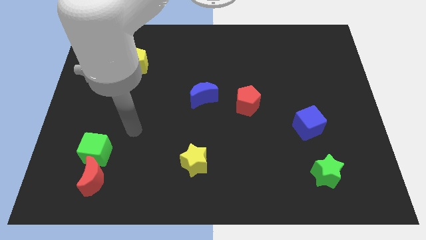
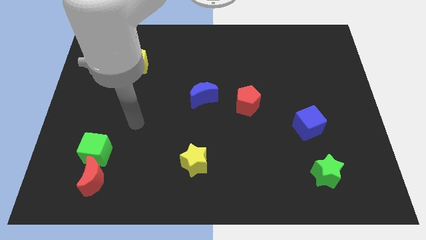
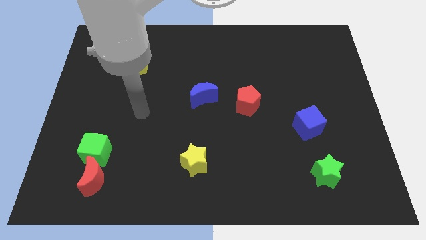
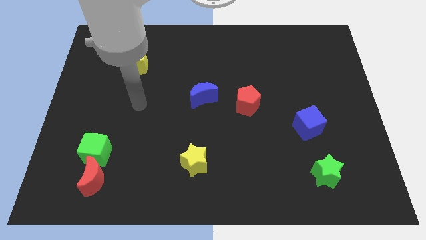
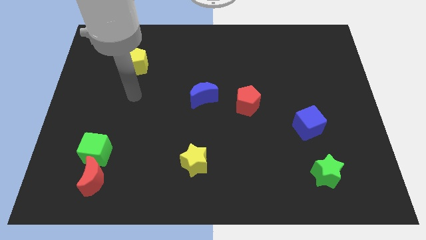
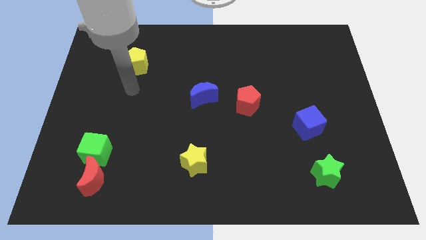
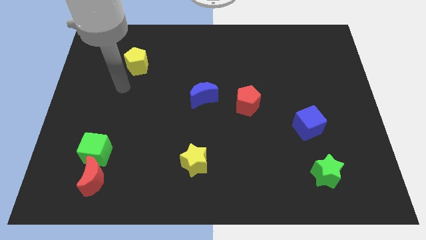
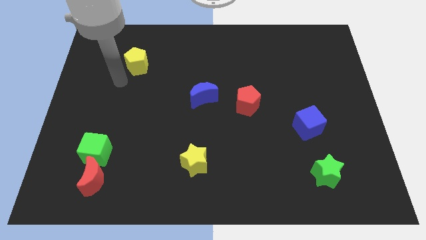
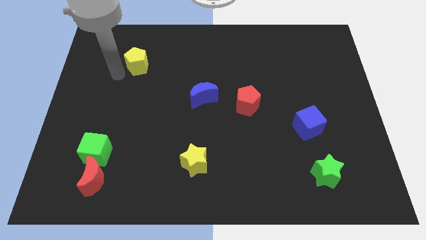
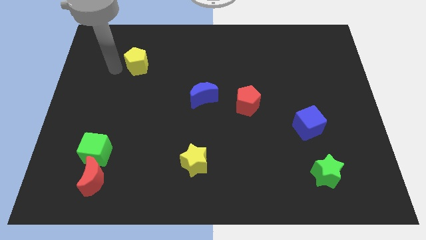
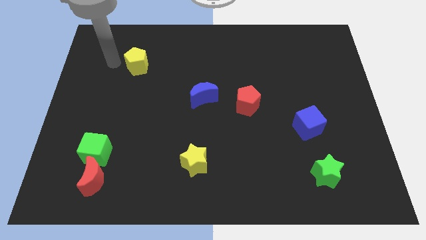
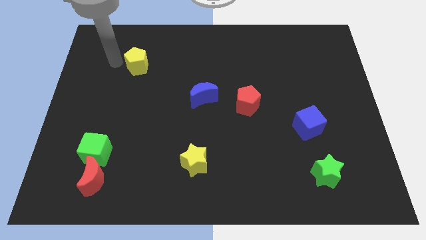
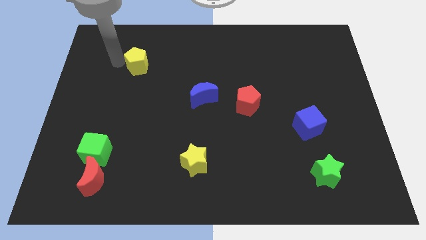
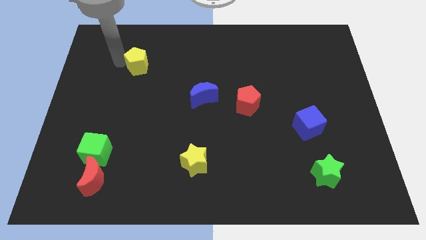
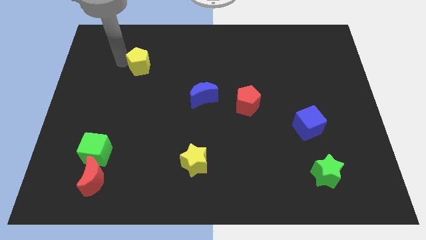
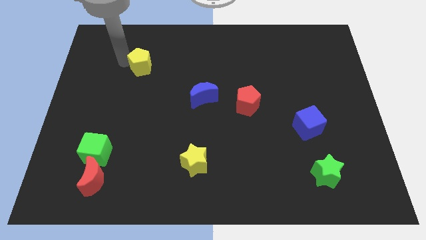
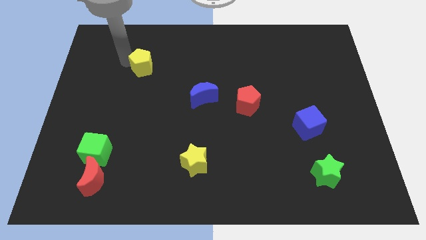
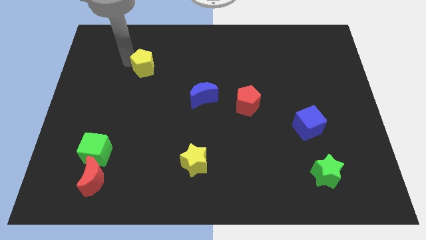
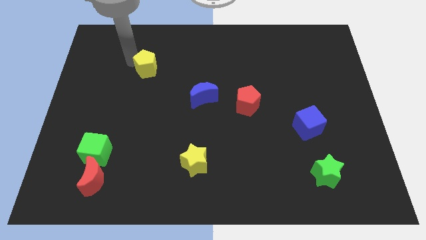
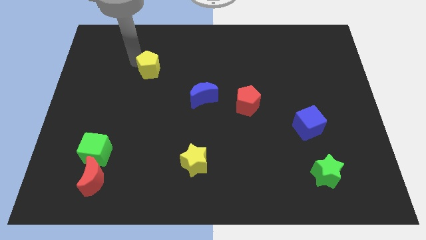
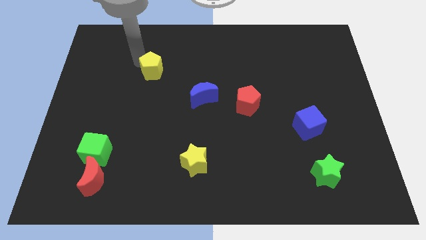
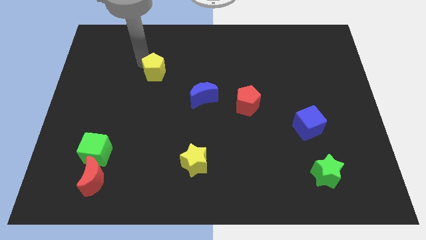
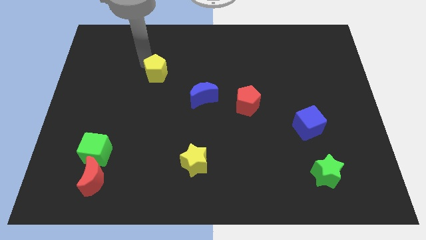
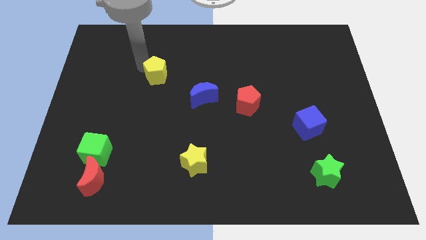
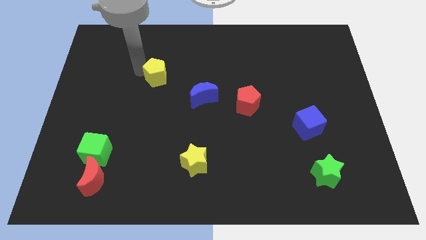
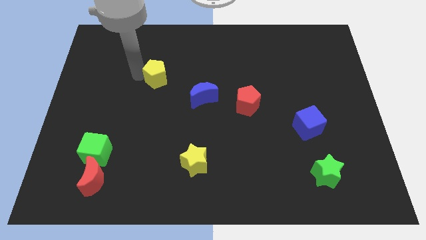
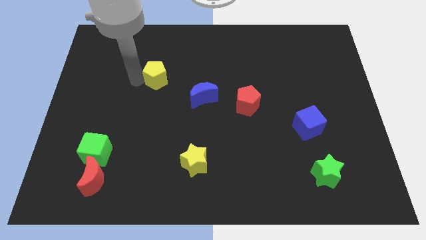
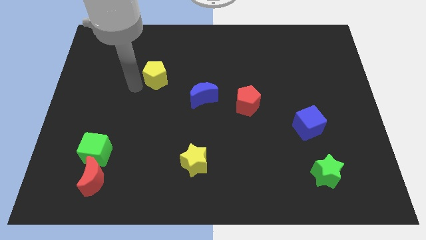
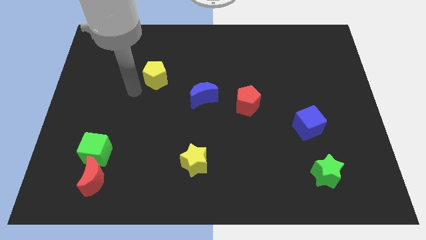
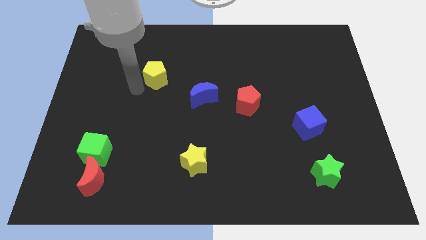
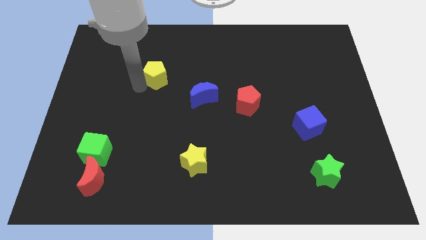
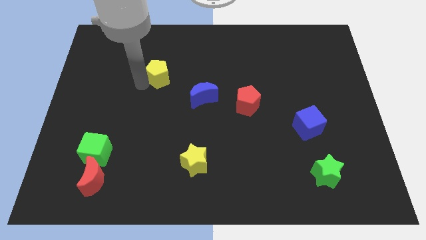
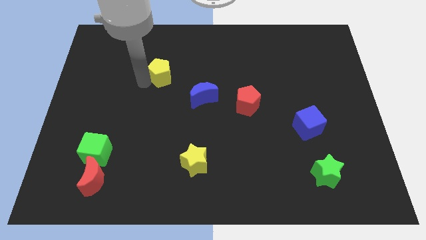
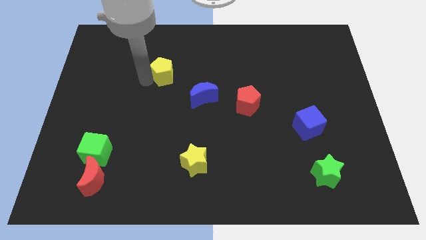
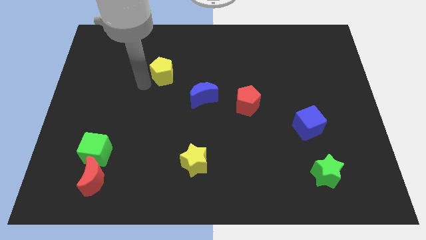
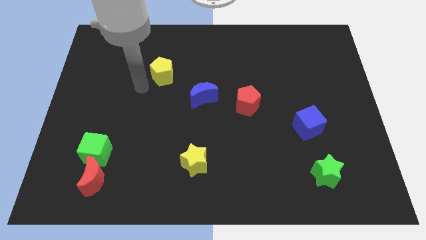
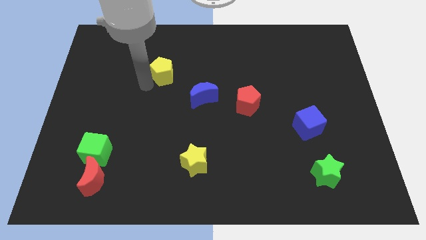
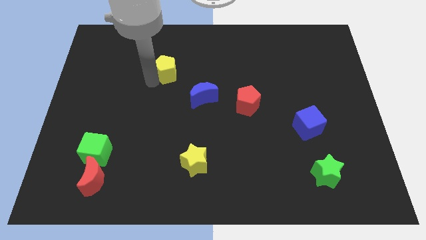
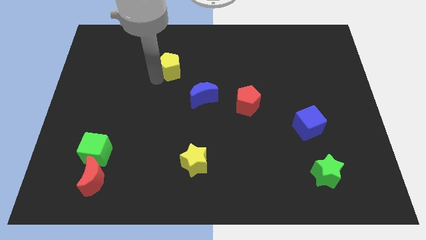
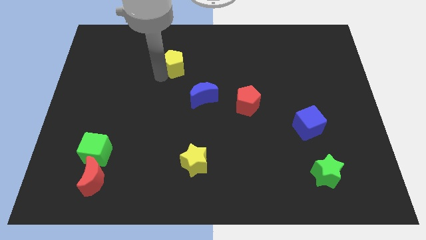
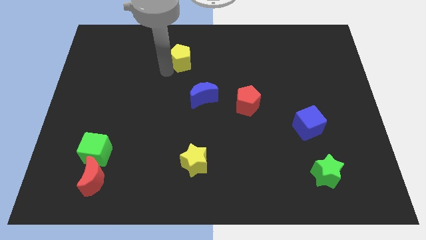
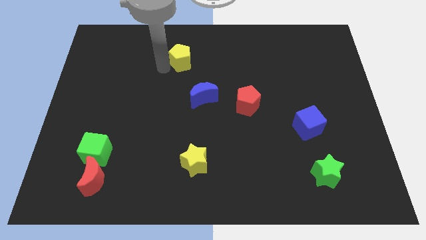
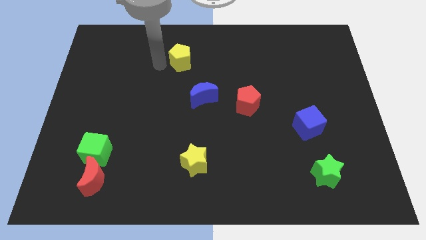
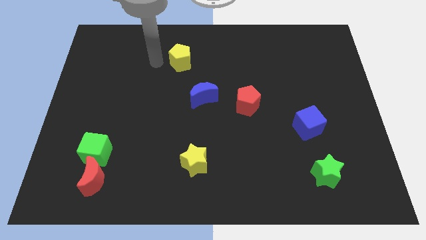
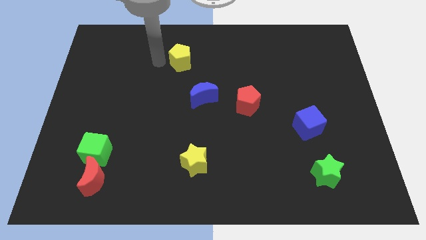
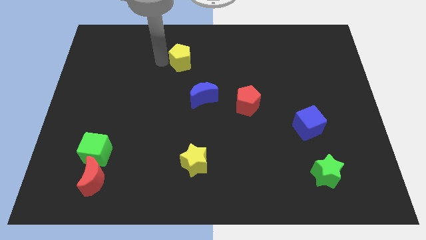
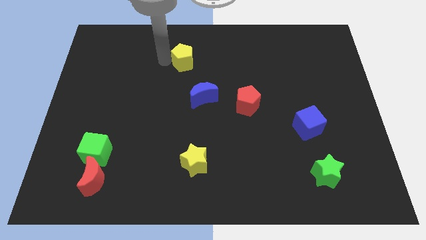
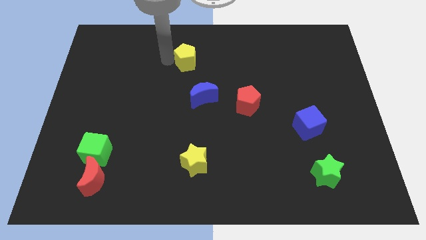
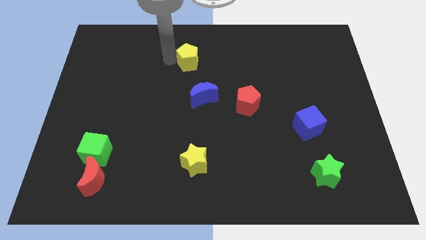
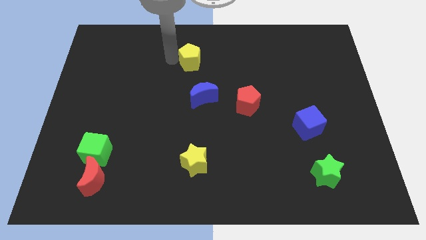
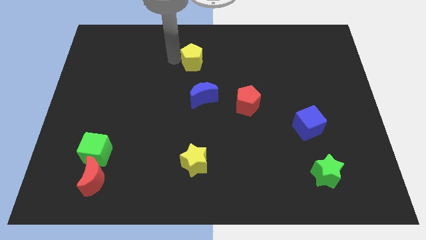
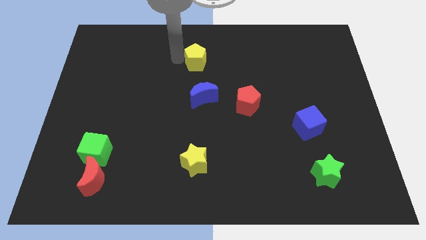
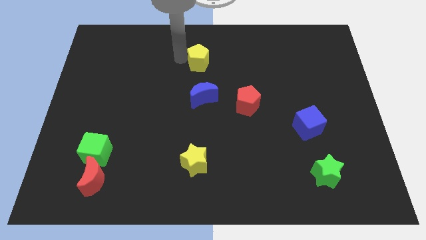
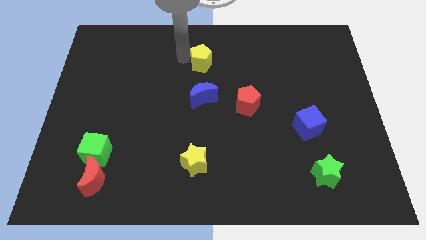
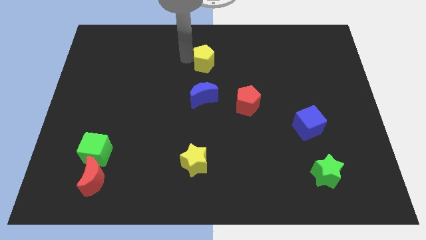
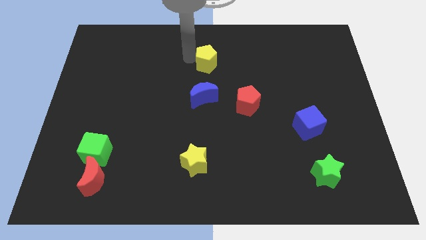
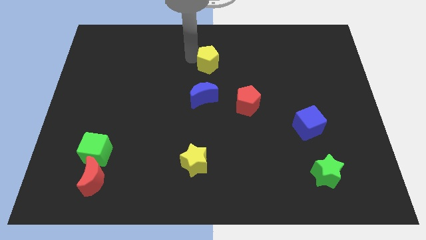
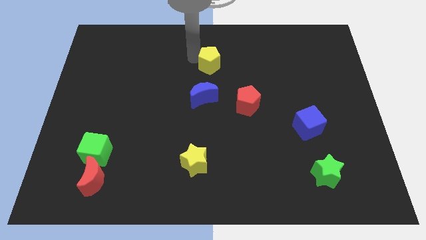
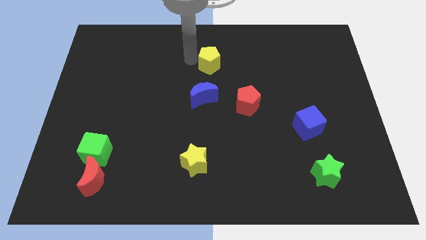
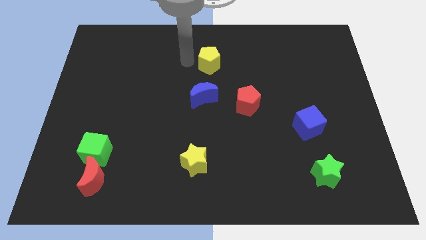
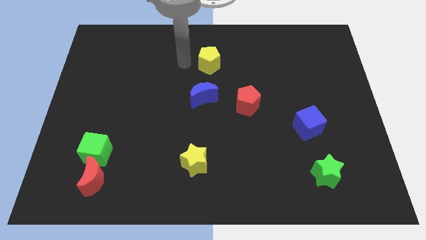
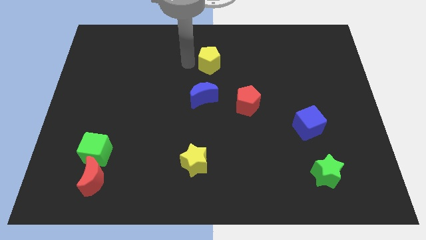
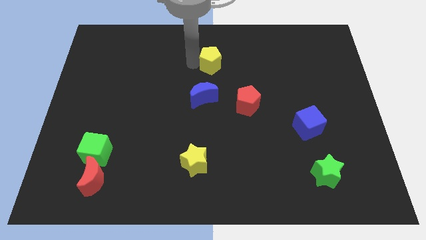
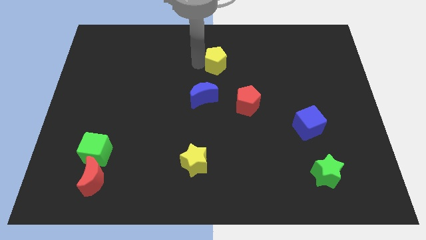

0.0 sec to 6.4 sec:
push the yellow pentagon to the right

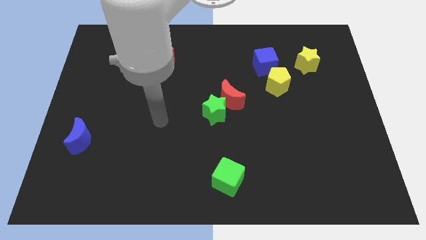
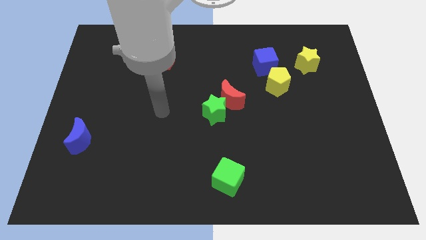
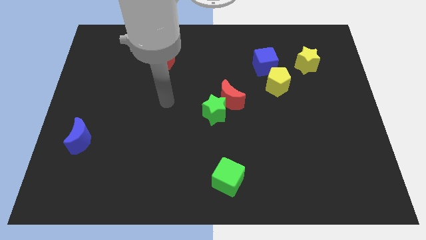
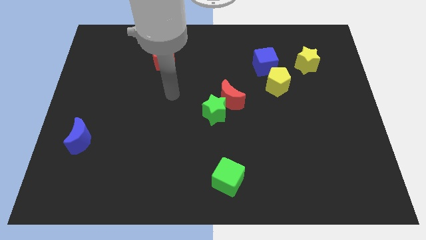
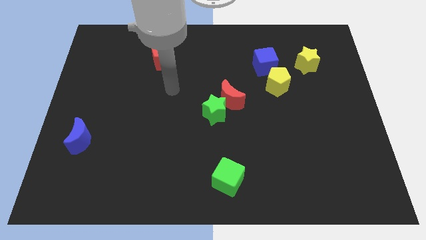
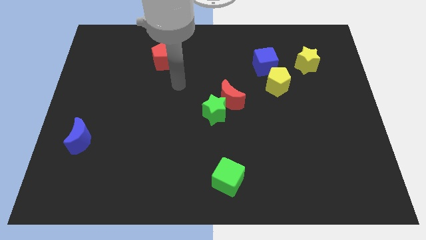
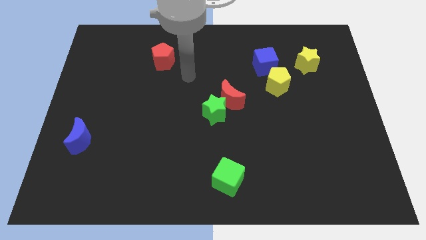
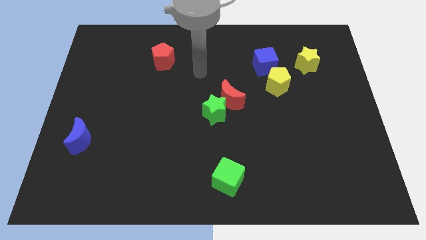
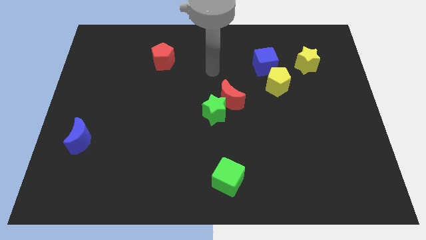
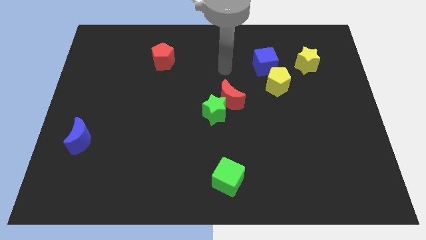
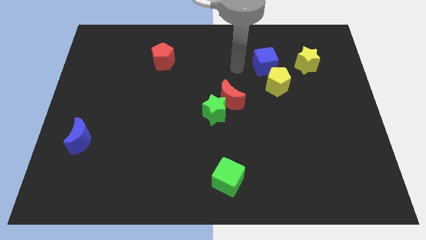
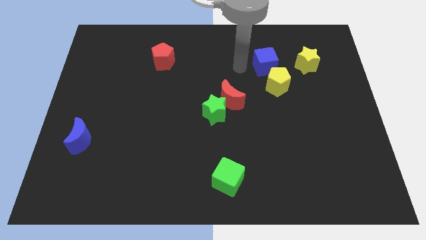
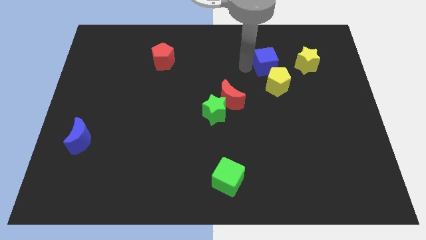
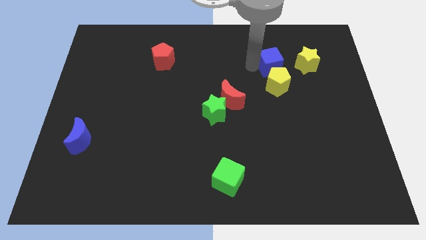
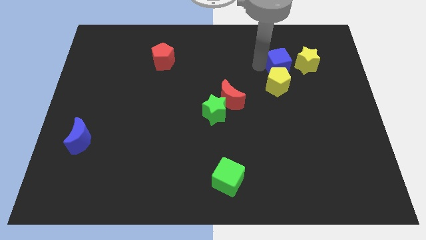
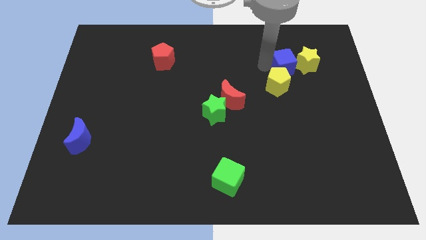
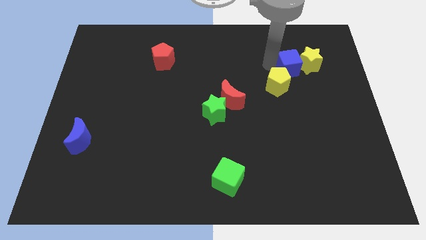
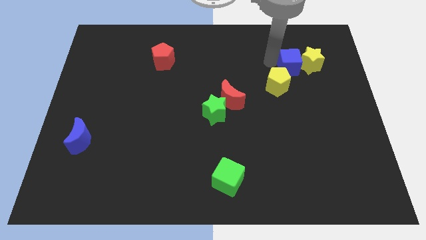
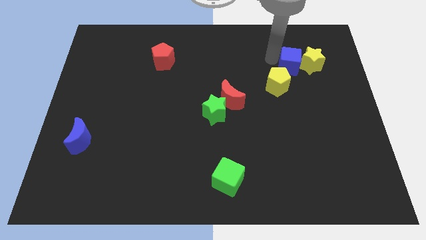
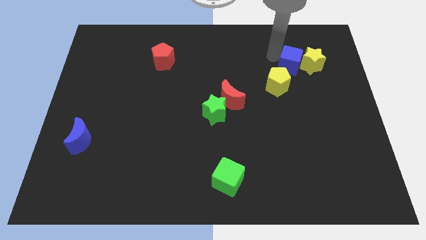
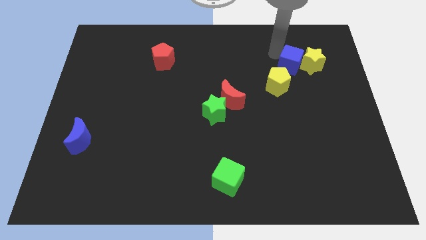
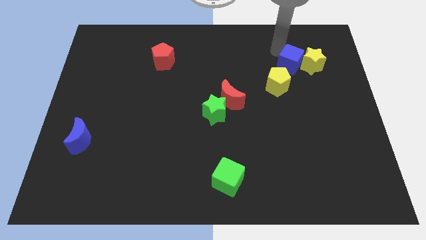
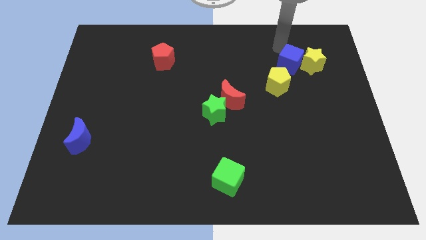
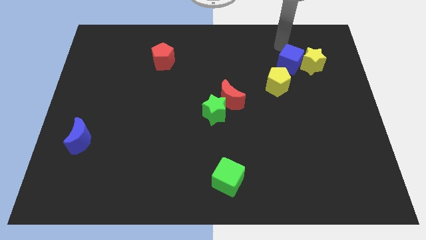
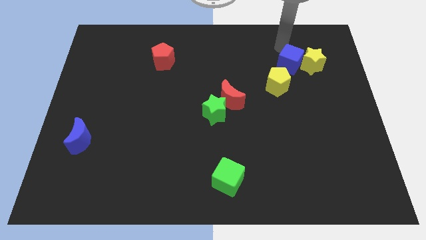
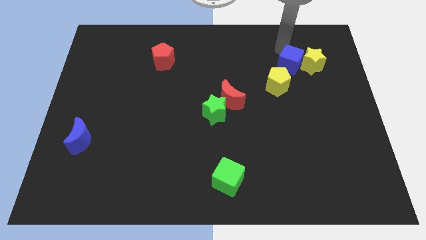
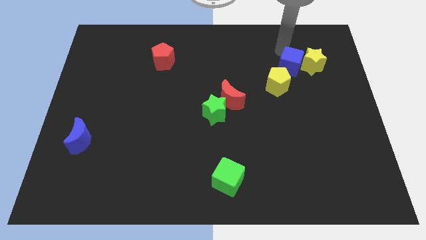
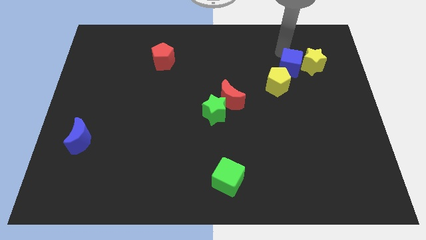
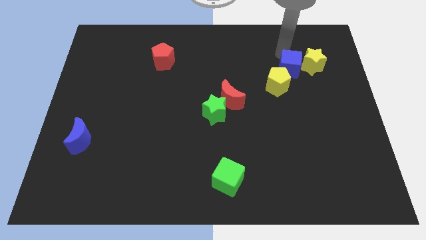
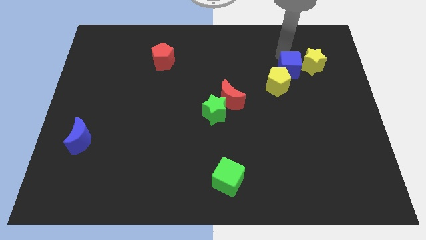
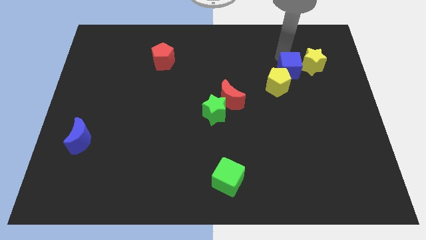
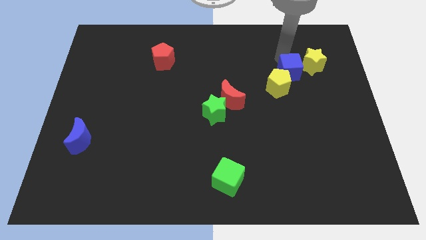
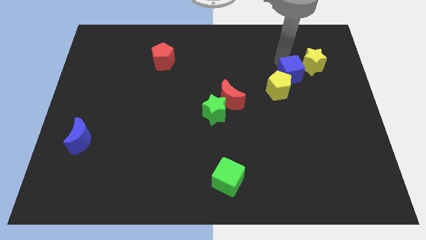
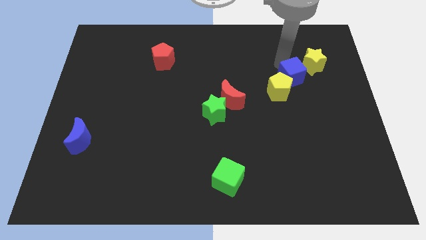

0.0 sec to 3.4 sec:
push the blue cube a little diagonally down and to the right
